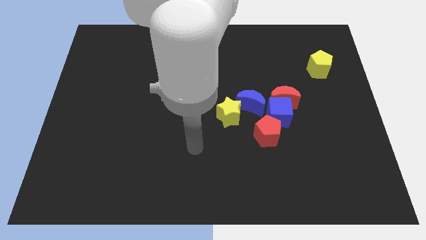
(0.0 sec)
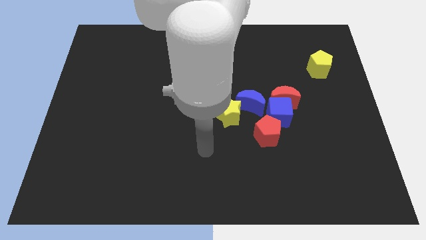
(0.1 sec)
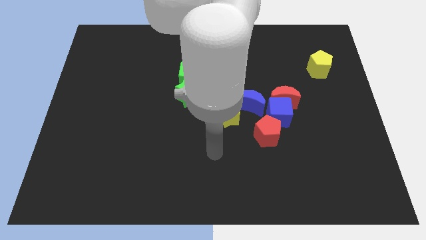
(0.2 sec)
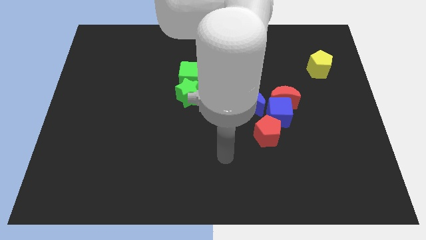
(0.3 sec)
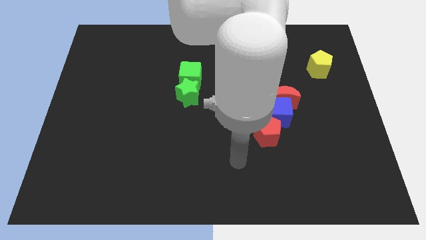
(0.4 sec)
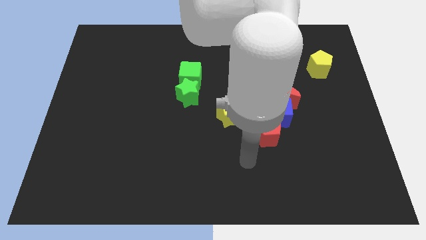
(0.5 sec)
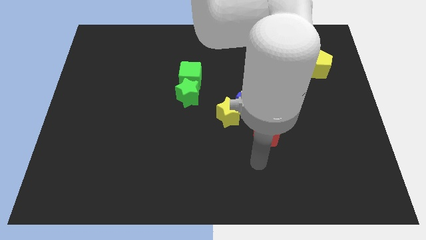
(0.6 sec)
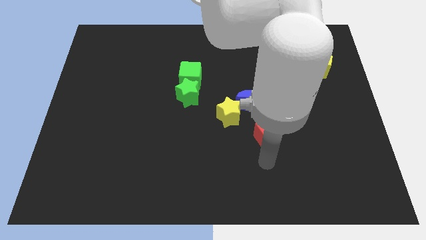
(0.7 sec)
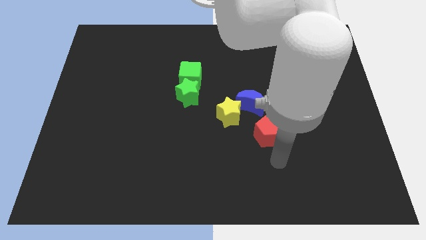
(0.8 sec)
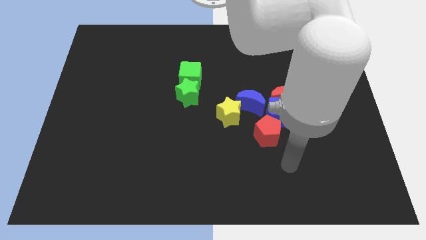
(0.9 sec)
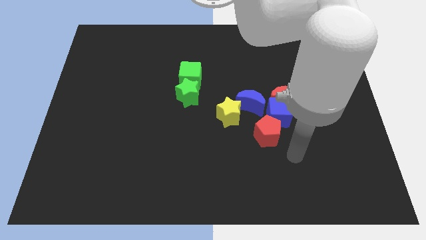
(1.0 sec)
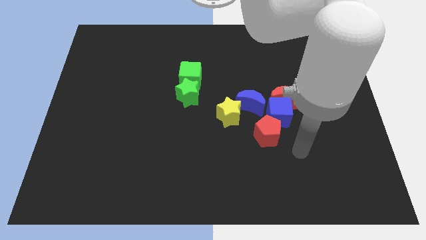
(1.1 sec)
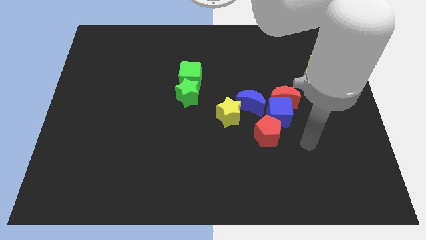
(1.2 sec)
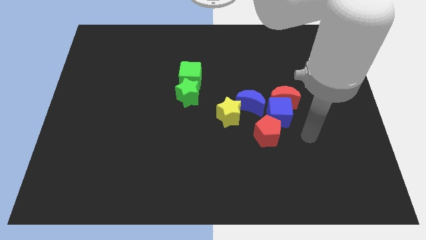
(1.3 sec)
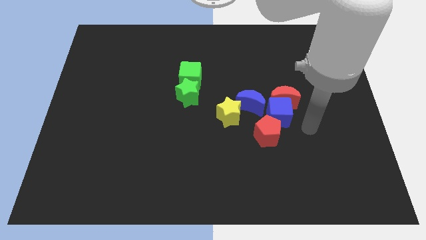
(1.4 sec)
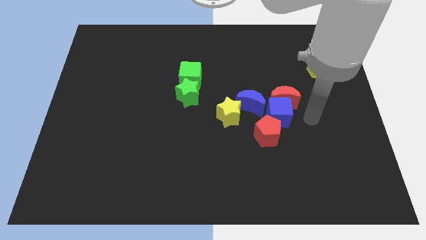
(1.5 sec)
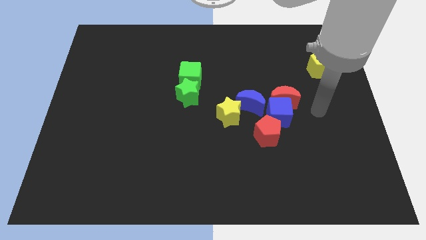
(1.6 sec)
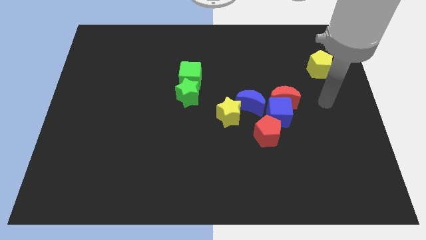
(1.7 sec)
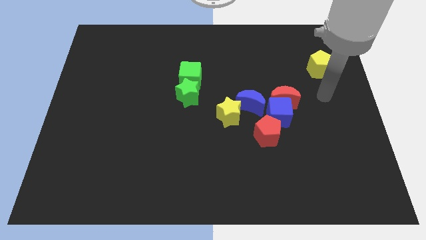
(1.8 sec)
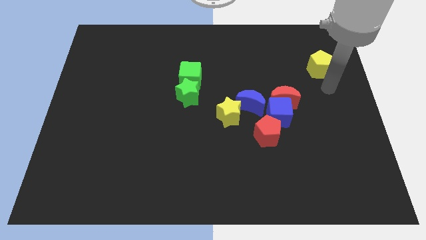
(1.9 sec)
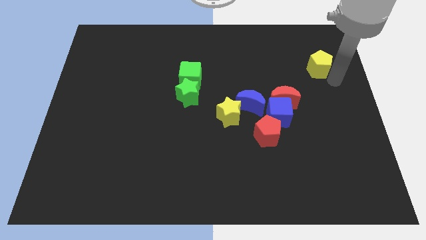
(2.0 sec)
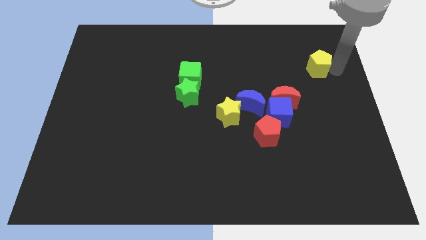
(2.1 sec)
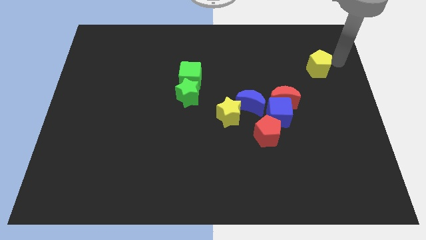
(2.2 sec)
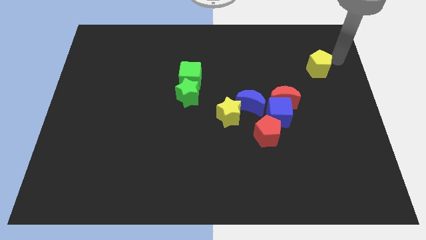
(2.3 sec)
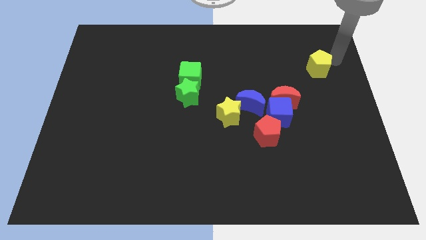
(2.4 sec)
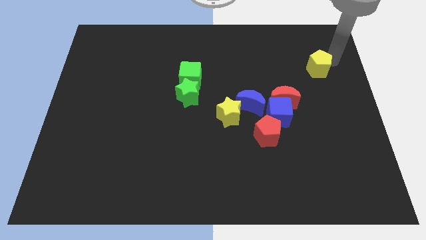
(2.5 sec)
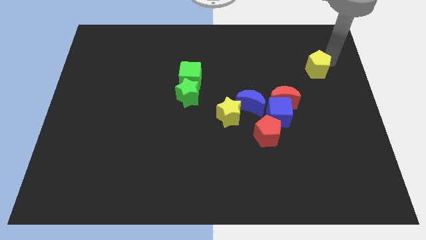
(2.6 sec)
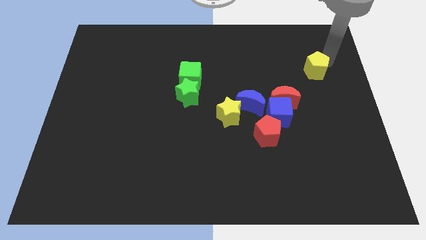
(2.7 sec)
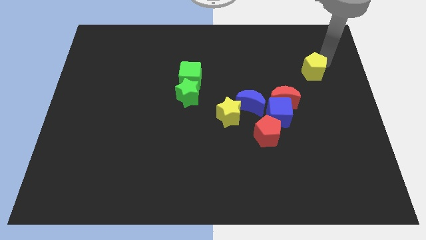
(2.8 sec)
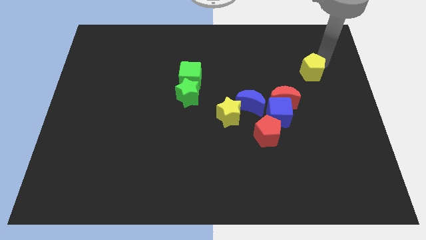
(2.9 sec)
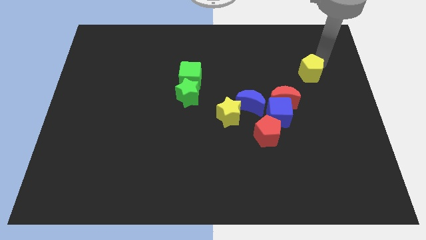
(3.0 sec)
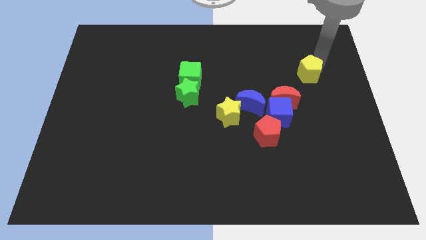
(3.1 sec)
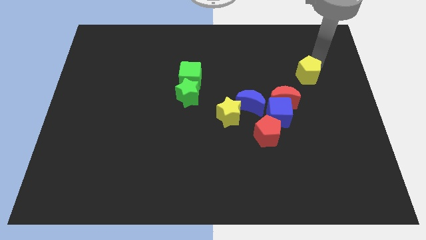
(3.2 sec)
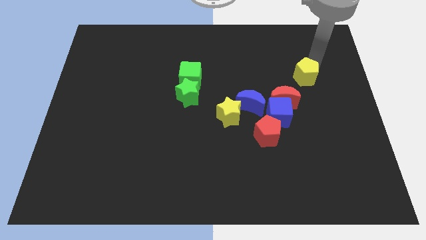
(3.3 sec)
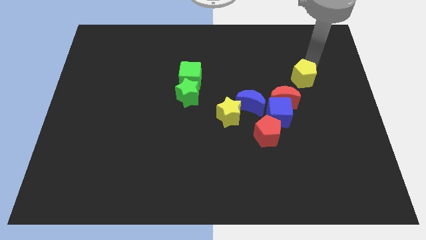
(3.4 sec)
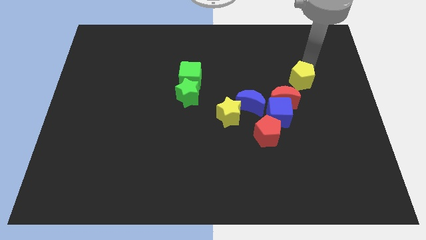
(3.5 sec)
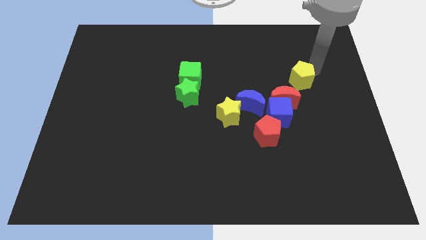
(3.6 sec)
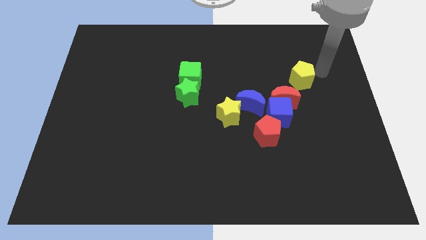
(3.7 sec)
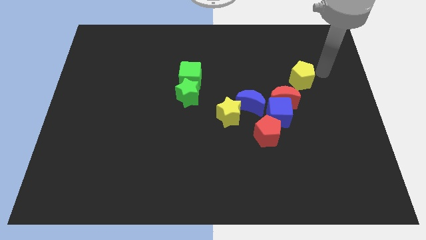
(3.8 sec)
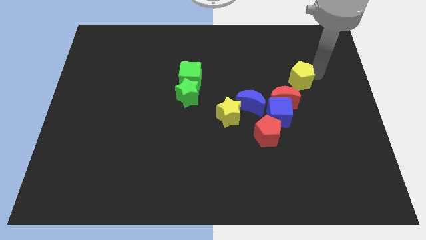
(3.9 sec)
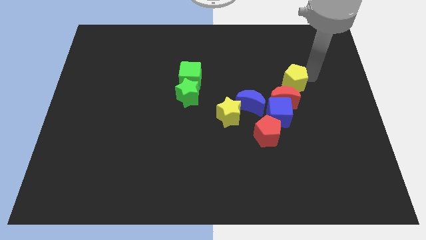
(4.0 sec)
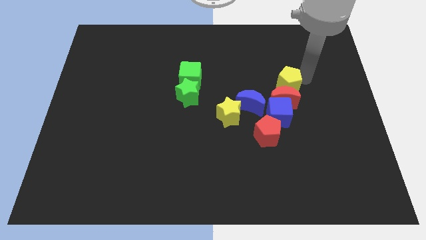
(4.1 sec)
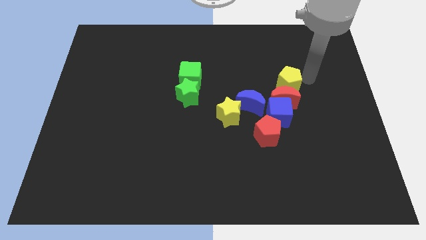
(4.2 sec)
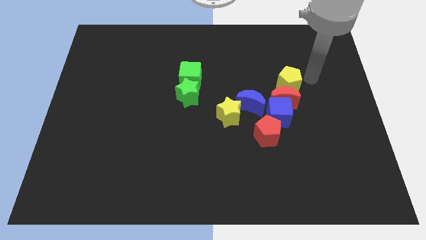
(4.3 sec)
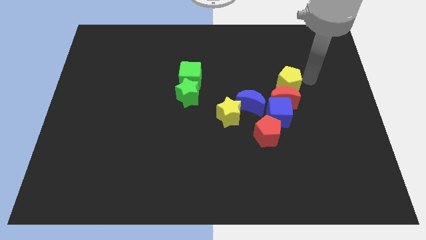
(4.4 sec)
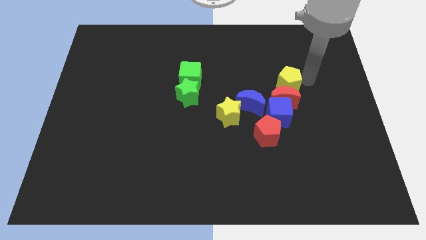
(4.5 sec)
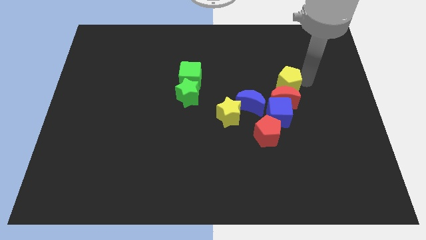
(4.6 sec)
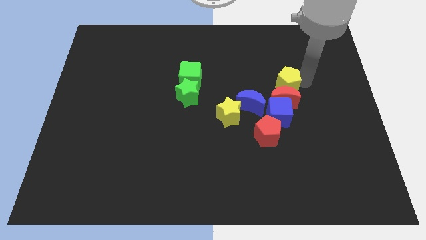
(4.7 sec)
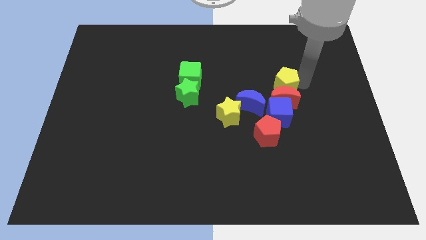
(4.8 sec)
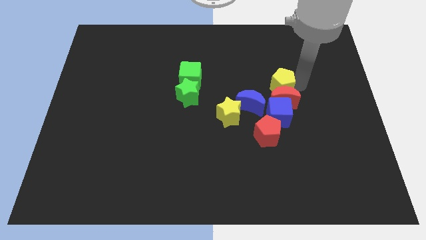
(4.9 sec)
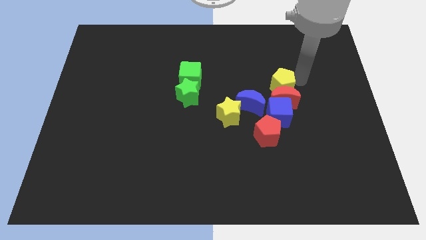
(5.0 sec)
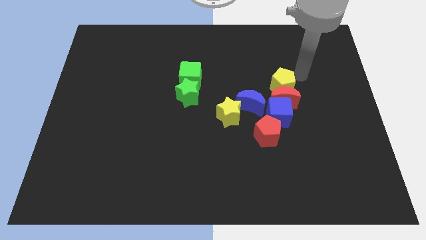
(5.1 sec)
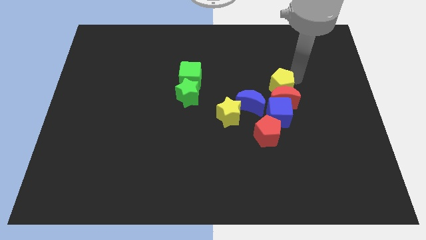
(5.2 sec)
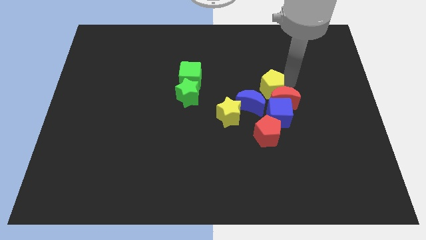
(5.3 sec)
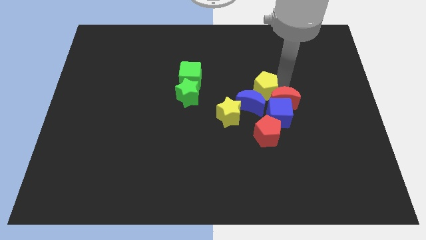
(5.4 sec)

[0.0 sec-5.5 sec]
put the yellow pentagon next to the blue moon

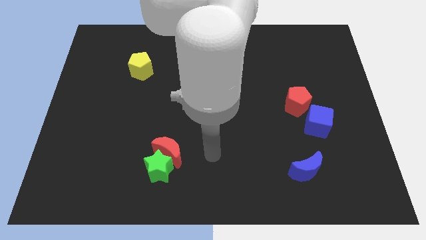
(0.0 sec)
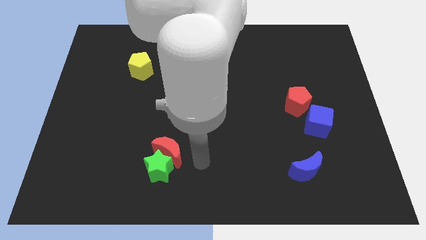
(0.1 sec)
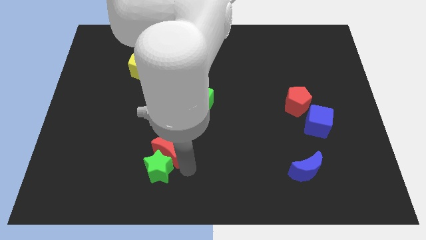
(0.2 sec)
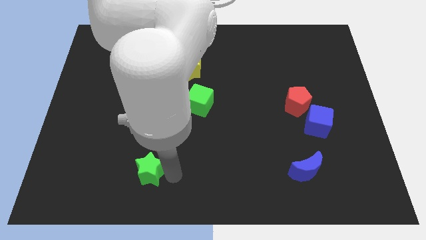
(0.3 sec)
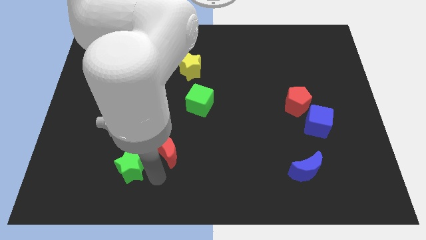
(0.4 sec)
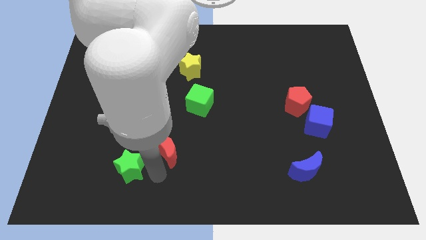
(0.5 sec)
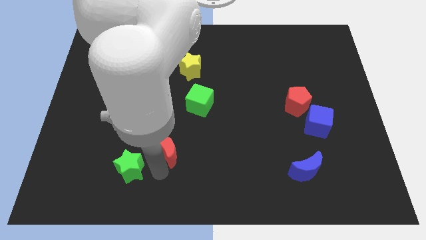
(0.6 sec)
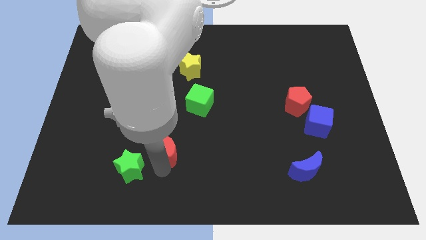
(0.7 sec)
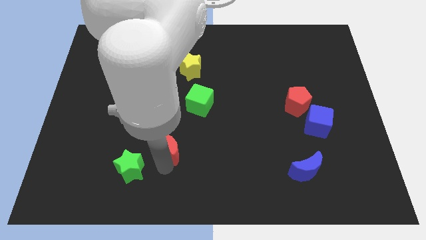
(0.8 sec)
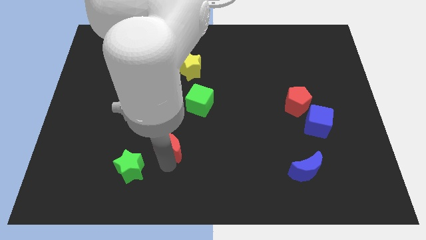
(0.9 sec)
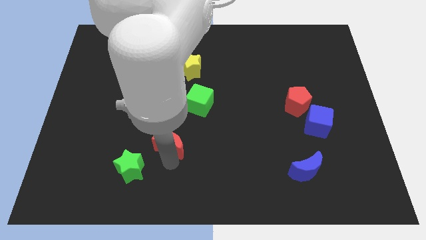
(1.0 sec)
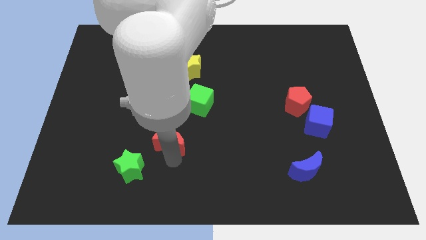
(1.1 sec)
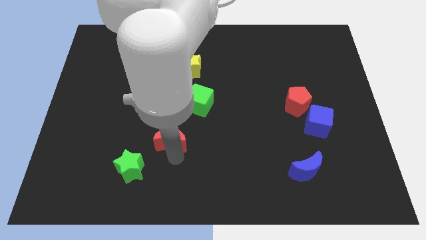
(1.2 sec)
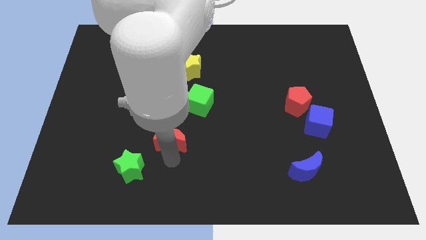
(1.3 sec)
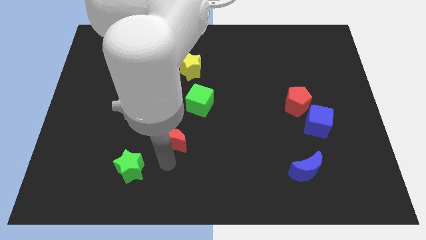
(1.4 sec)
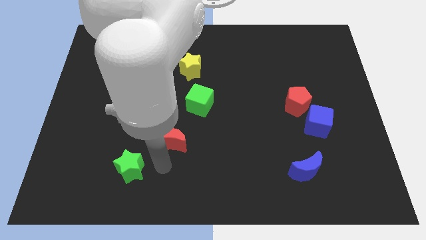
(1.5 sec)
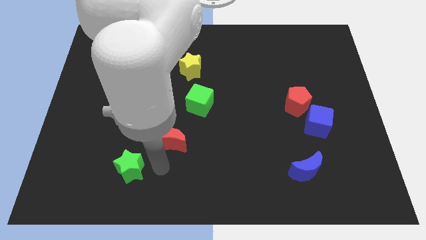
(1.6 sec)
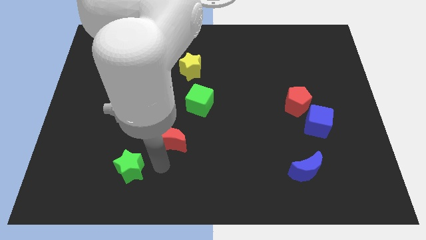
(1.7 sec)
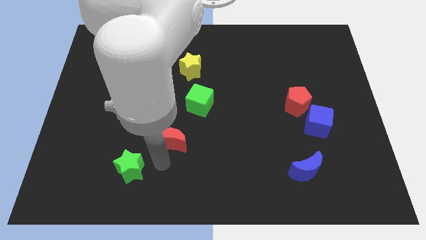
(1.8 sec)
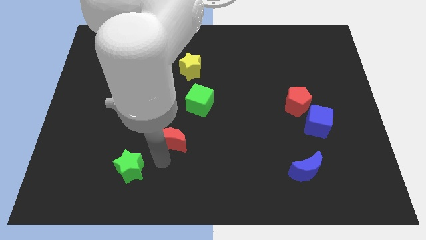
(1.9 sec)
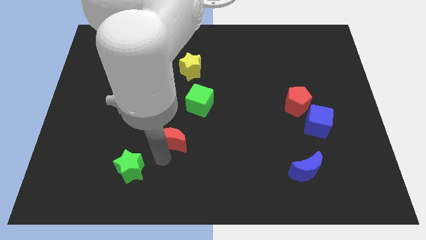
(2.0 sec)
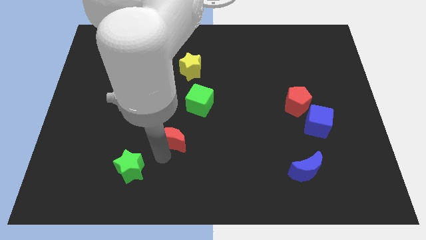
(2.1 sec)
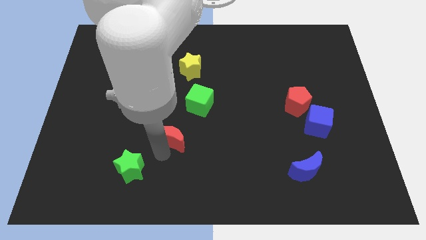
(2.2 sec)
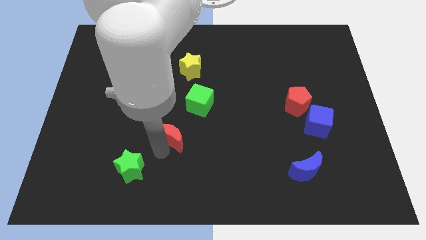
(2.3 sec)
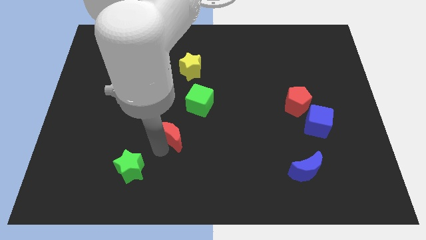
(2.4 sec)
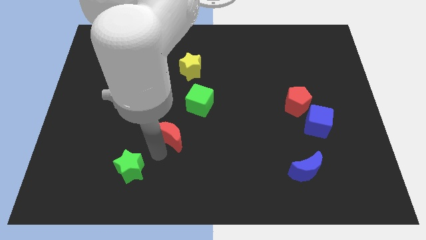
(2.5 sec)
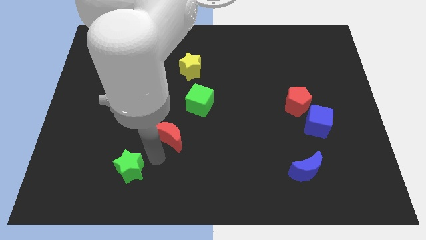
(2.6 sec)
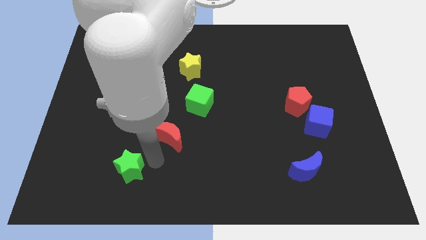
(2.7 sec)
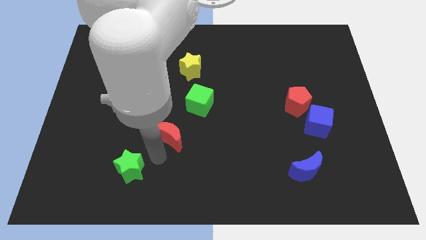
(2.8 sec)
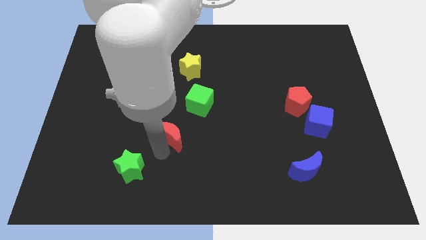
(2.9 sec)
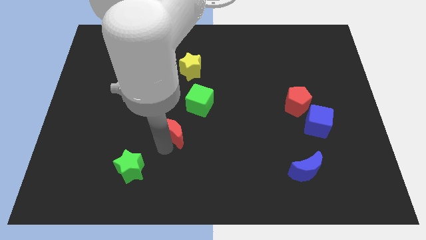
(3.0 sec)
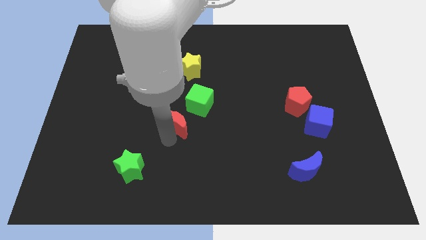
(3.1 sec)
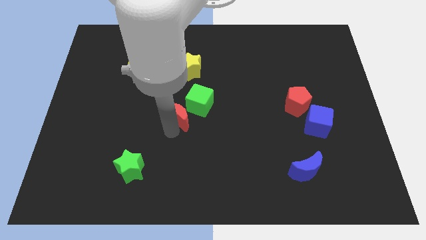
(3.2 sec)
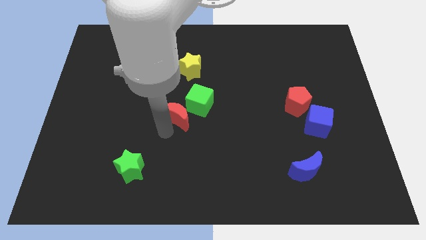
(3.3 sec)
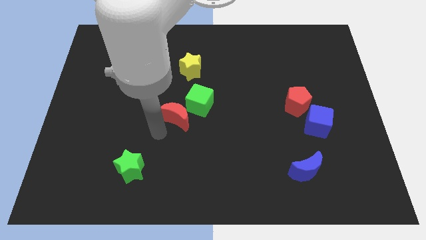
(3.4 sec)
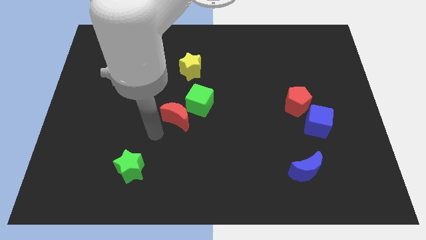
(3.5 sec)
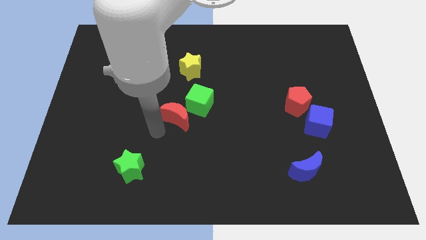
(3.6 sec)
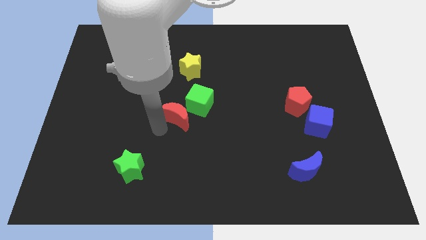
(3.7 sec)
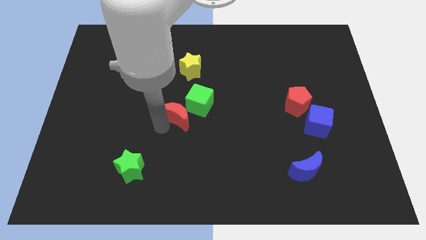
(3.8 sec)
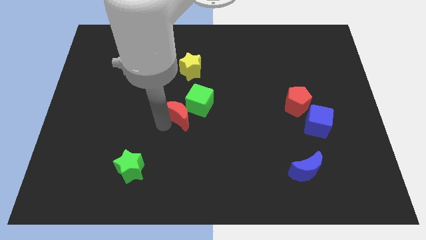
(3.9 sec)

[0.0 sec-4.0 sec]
put the red moon close to the green cube
